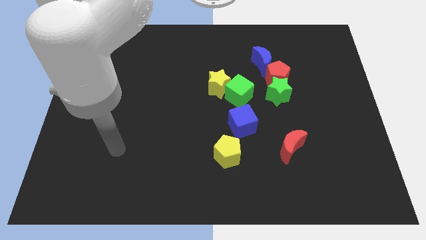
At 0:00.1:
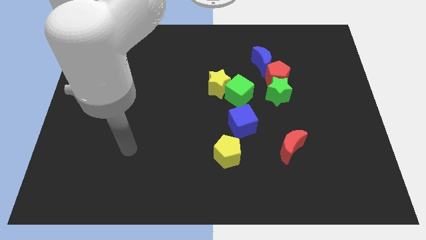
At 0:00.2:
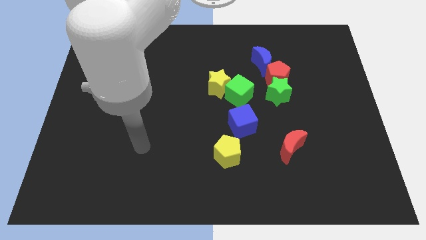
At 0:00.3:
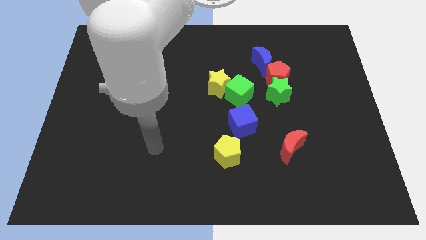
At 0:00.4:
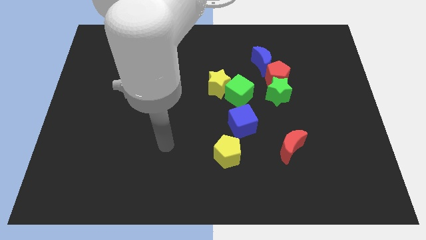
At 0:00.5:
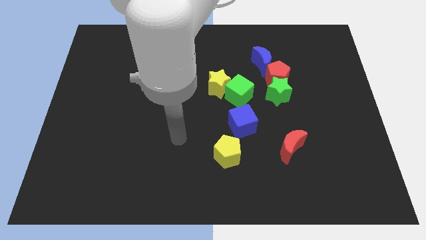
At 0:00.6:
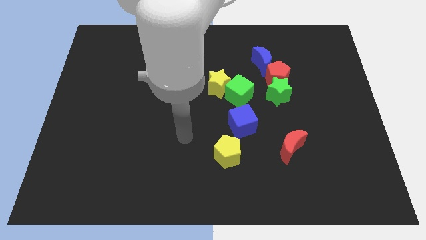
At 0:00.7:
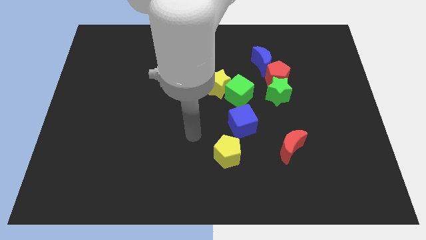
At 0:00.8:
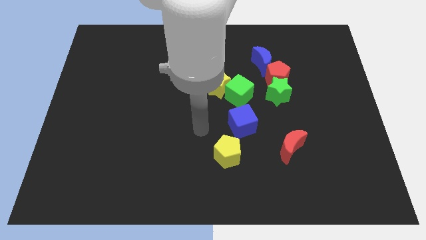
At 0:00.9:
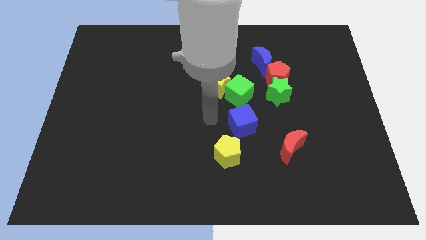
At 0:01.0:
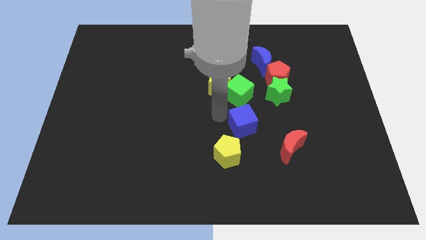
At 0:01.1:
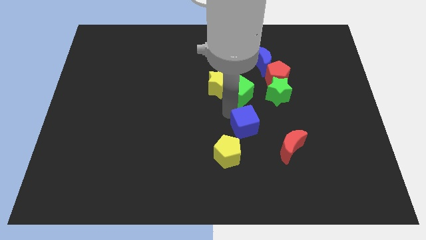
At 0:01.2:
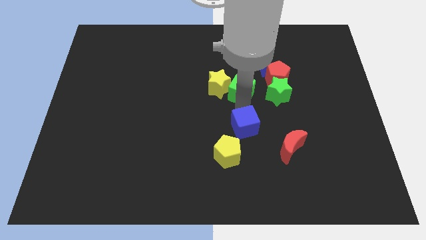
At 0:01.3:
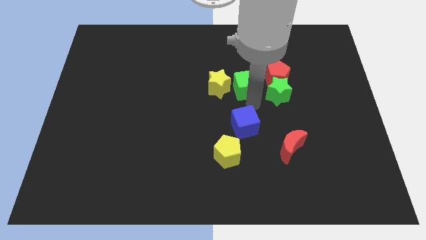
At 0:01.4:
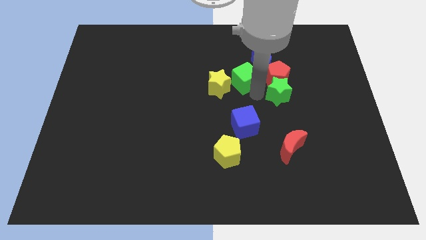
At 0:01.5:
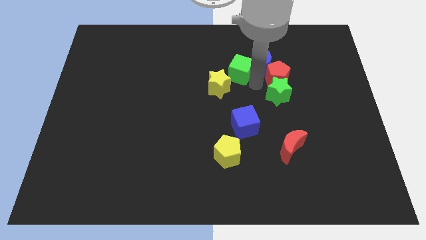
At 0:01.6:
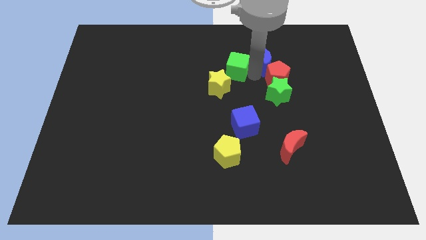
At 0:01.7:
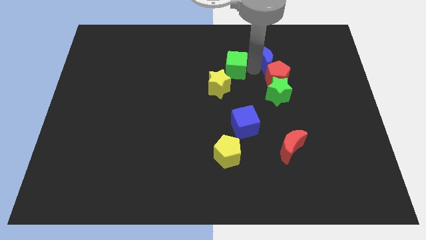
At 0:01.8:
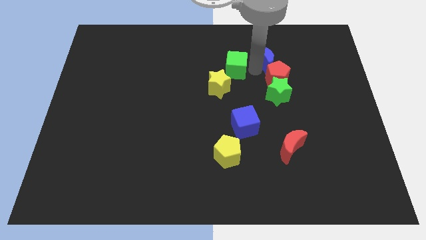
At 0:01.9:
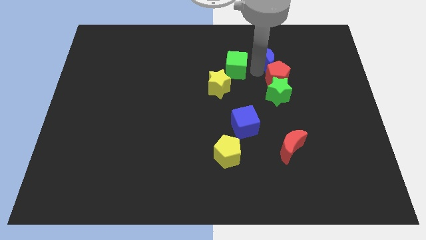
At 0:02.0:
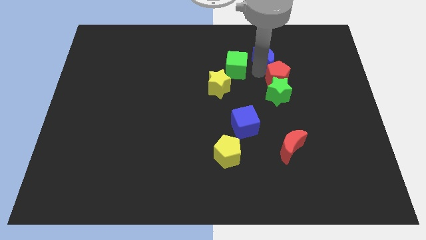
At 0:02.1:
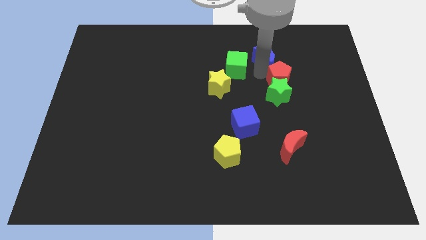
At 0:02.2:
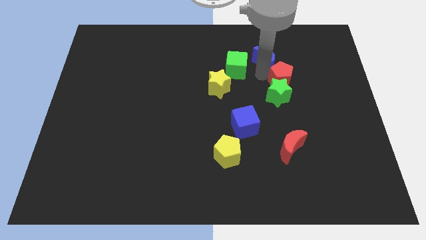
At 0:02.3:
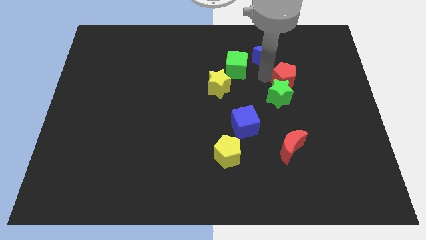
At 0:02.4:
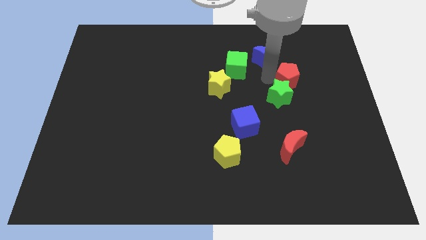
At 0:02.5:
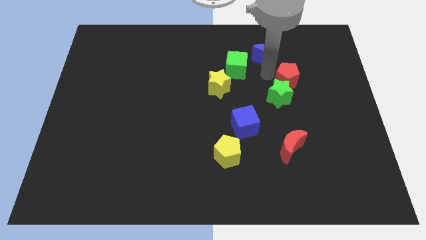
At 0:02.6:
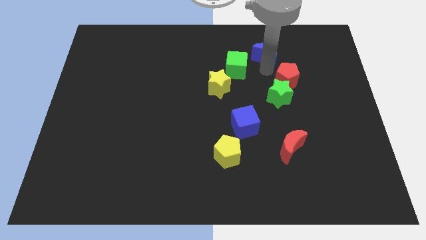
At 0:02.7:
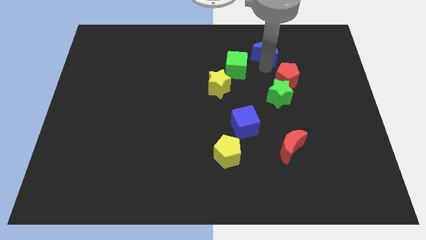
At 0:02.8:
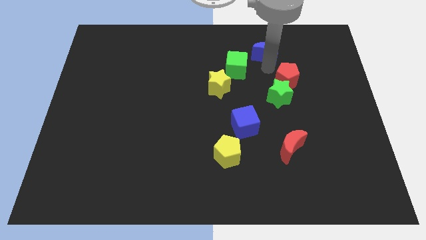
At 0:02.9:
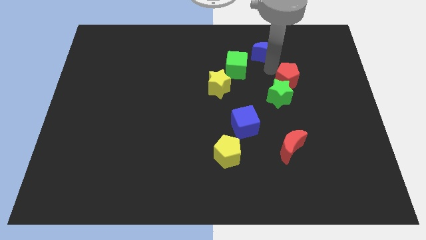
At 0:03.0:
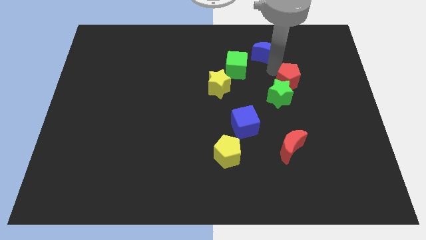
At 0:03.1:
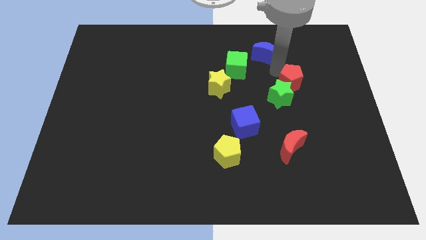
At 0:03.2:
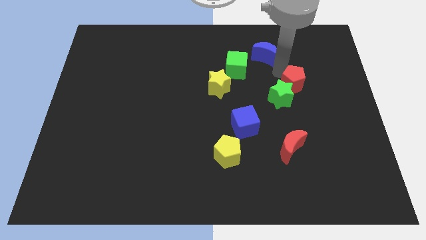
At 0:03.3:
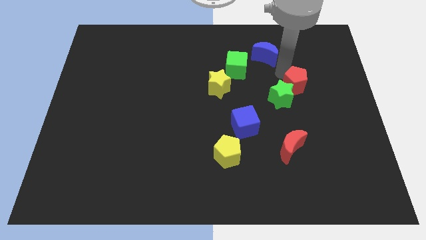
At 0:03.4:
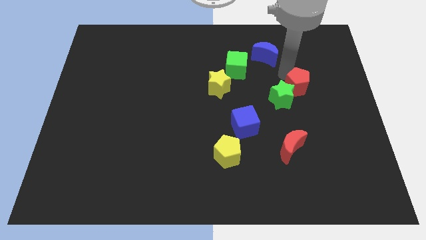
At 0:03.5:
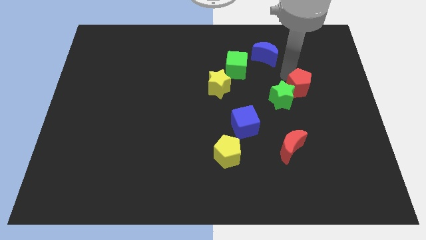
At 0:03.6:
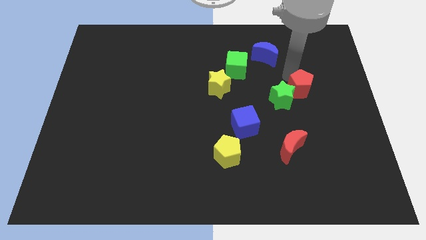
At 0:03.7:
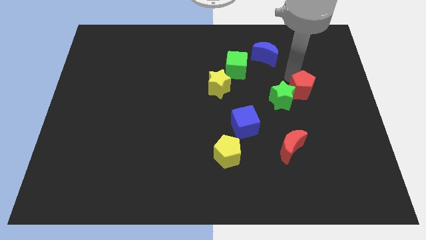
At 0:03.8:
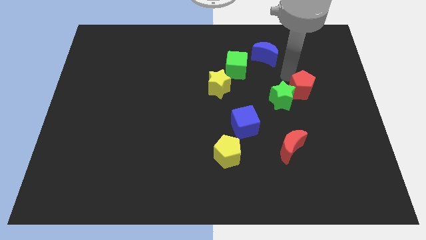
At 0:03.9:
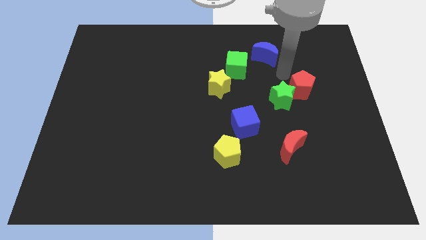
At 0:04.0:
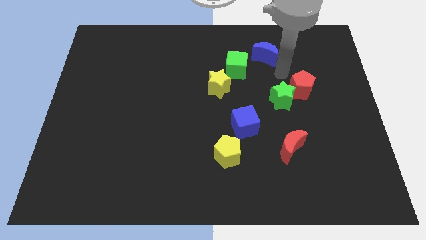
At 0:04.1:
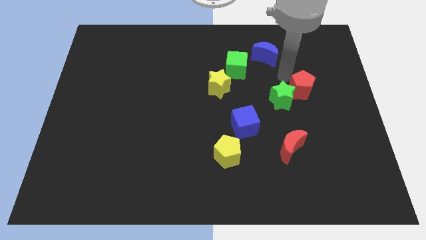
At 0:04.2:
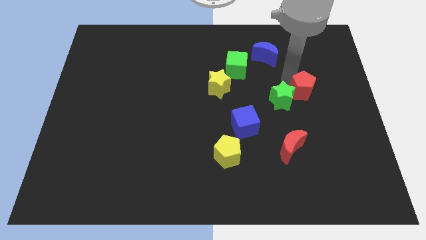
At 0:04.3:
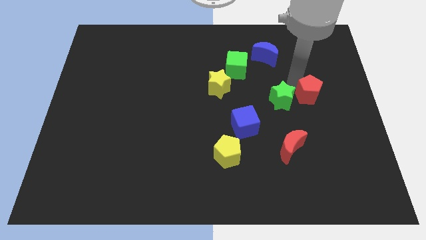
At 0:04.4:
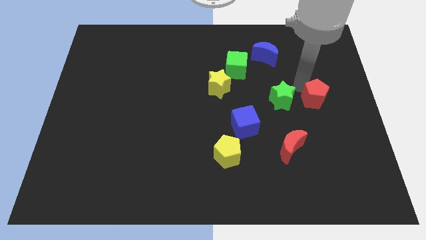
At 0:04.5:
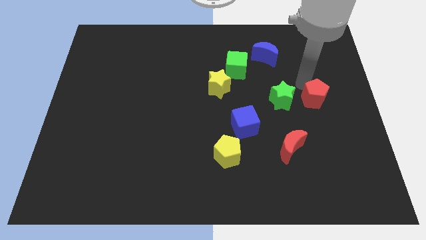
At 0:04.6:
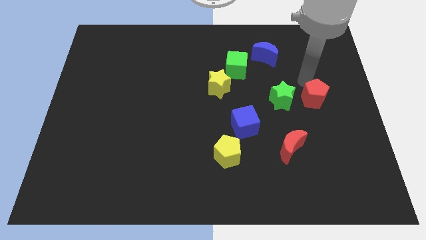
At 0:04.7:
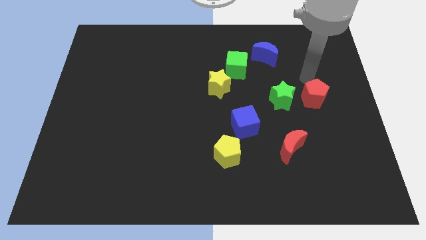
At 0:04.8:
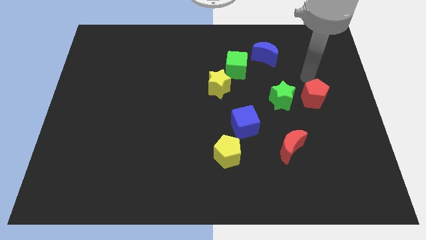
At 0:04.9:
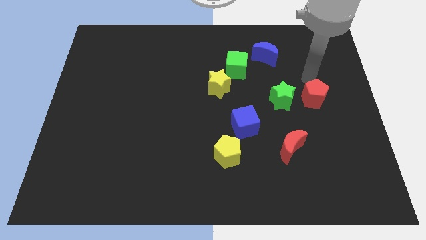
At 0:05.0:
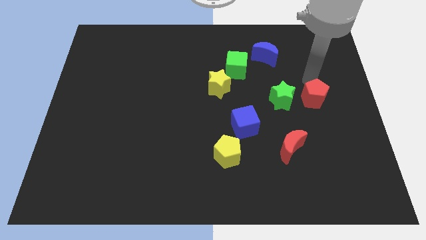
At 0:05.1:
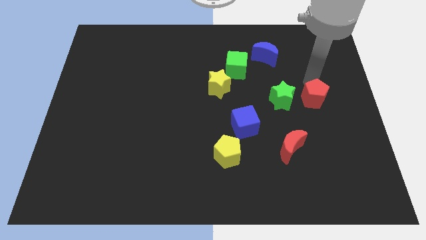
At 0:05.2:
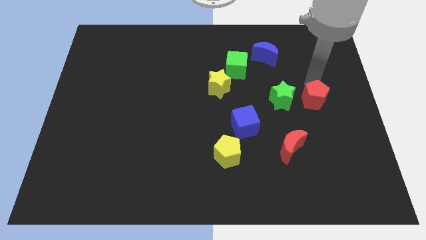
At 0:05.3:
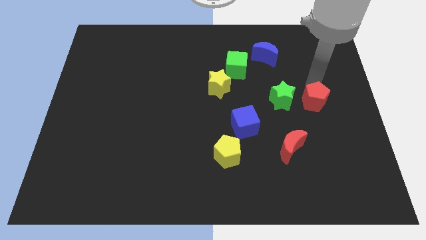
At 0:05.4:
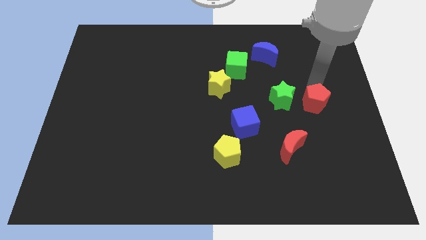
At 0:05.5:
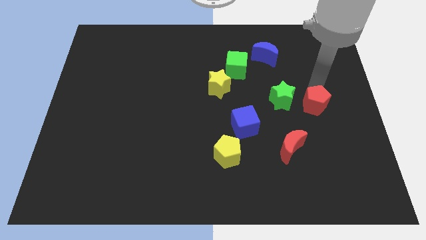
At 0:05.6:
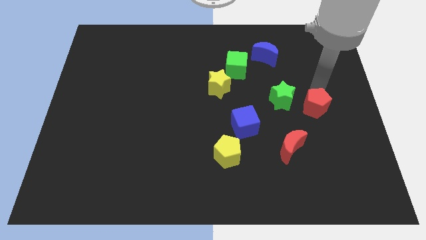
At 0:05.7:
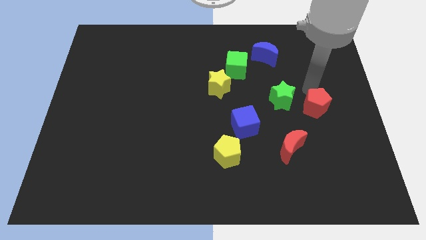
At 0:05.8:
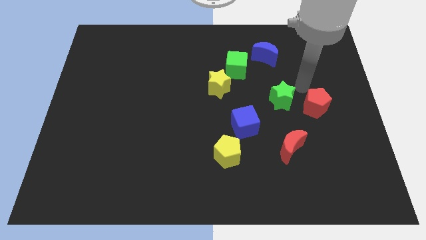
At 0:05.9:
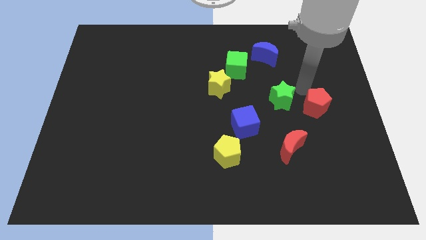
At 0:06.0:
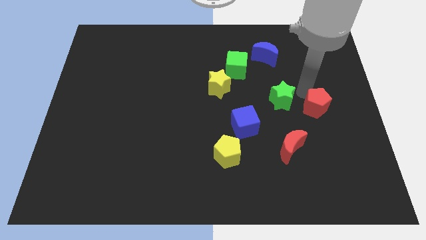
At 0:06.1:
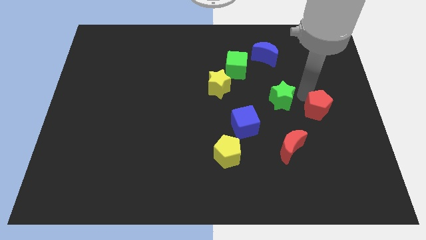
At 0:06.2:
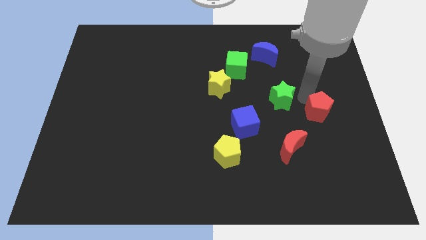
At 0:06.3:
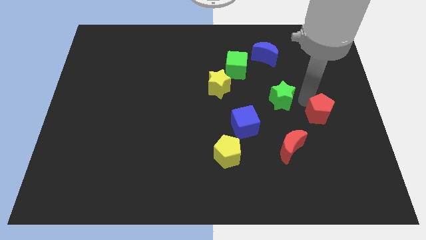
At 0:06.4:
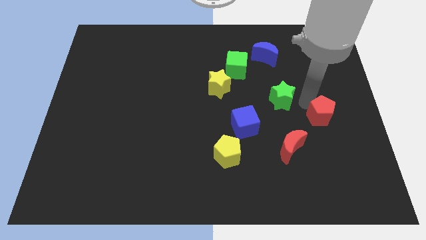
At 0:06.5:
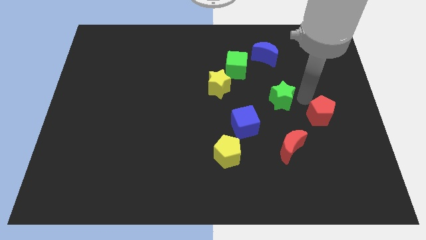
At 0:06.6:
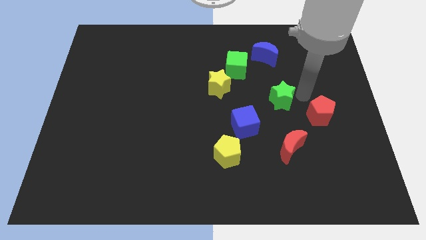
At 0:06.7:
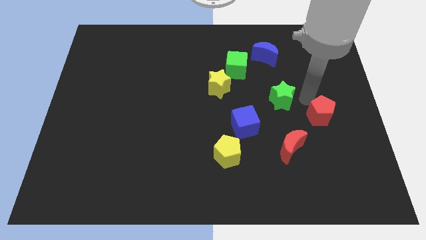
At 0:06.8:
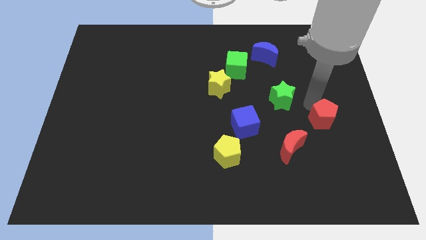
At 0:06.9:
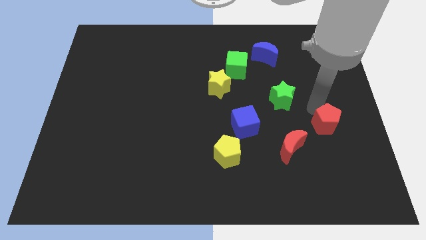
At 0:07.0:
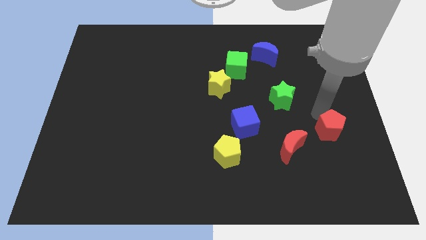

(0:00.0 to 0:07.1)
slide the red pentagon to the right side of the red moon
